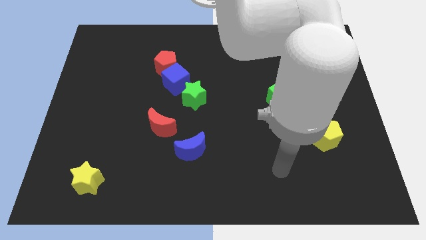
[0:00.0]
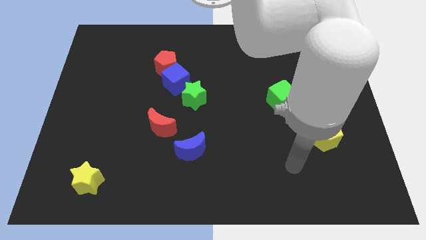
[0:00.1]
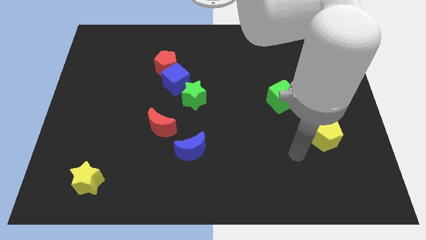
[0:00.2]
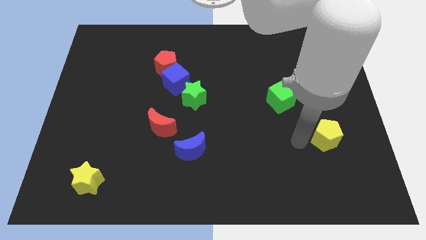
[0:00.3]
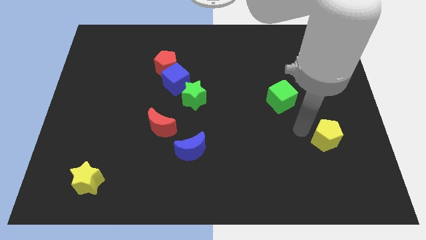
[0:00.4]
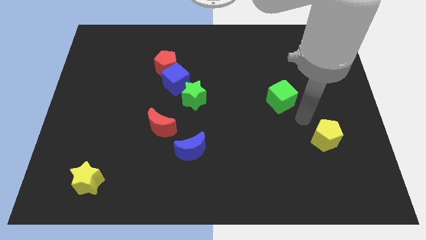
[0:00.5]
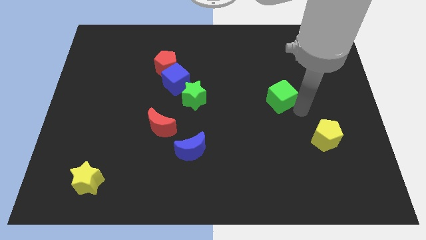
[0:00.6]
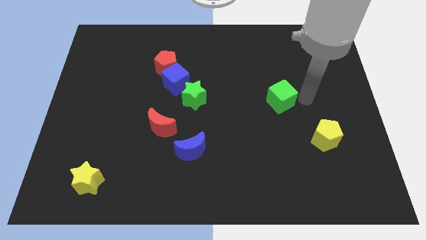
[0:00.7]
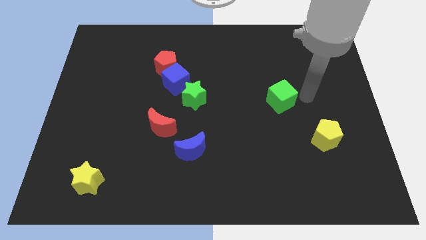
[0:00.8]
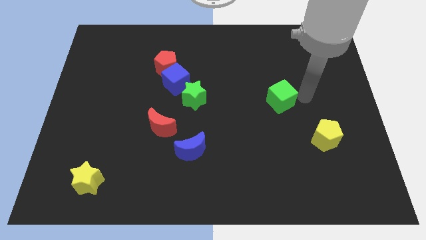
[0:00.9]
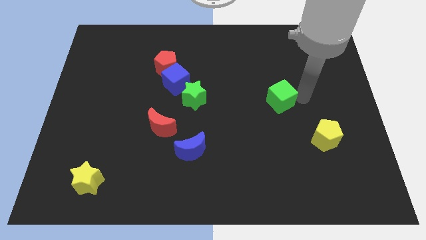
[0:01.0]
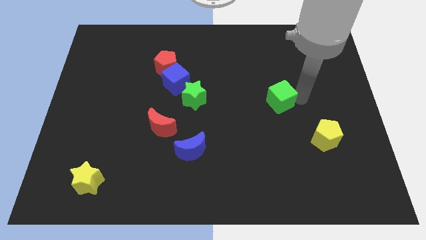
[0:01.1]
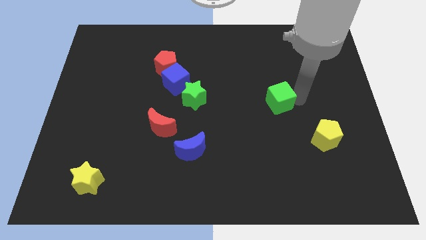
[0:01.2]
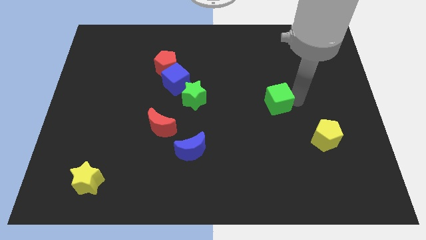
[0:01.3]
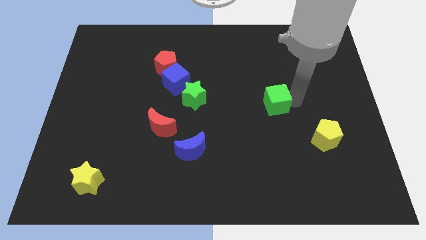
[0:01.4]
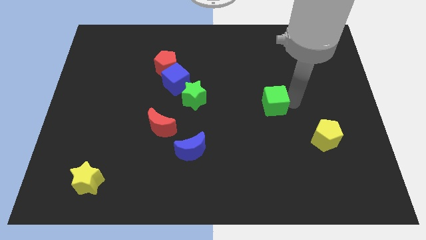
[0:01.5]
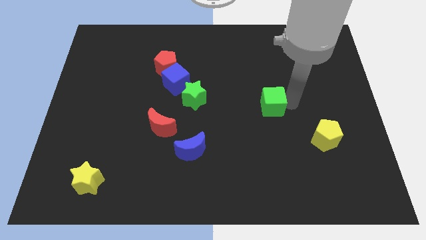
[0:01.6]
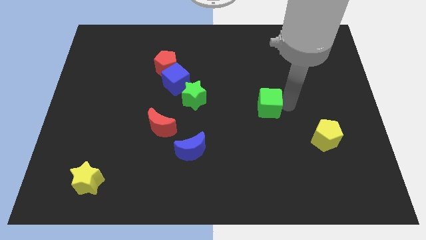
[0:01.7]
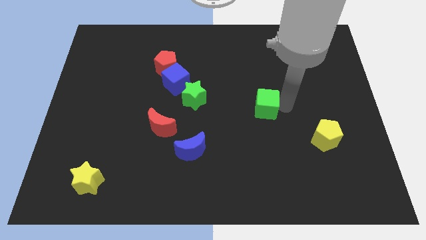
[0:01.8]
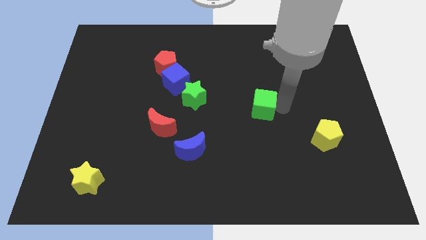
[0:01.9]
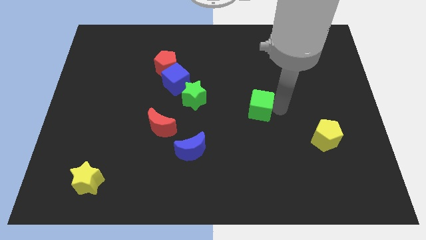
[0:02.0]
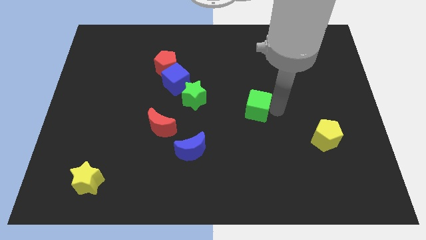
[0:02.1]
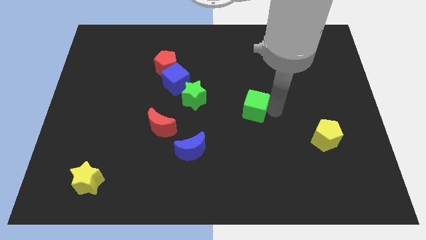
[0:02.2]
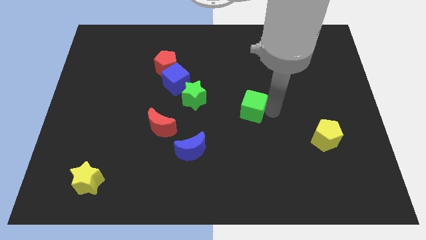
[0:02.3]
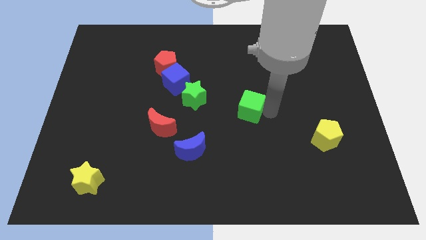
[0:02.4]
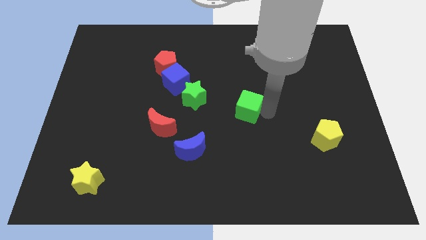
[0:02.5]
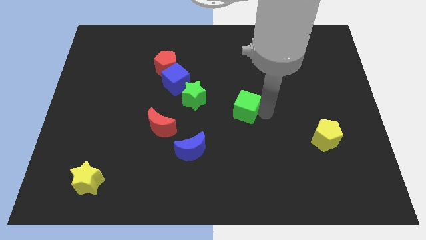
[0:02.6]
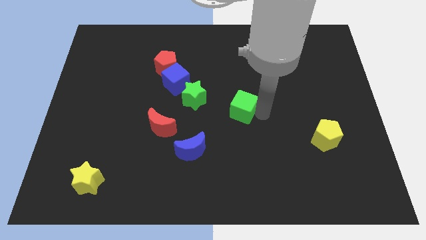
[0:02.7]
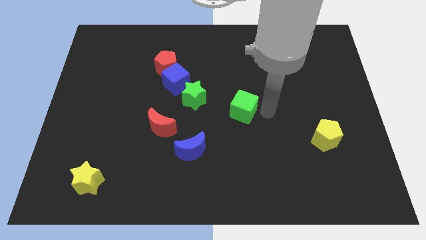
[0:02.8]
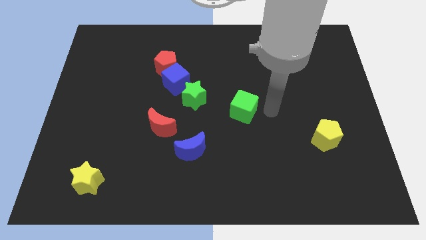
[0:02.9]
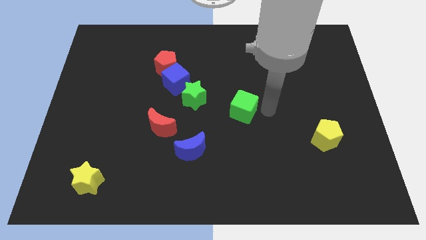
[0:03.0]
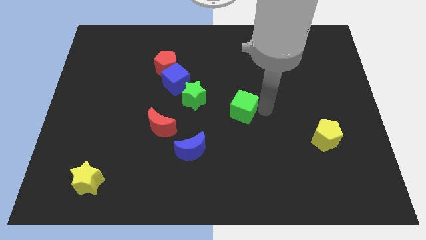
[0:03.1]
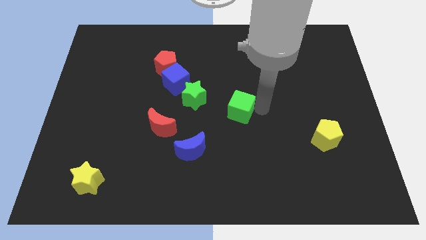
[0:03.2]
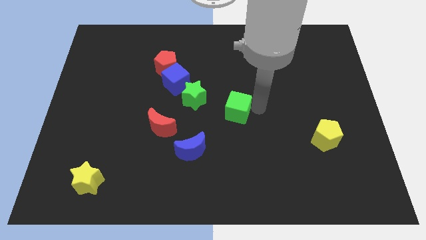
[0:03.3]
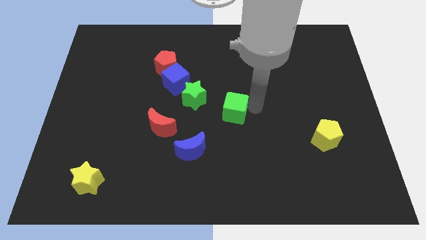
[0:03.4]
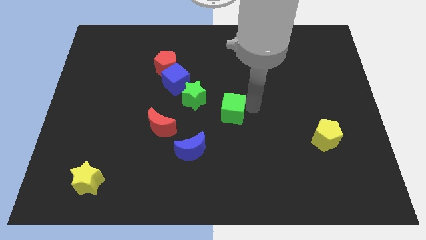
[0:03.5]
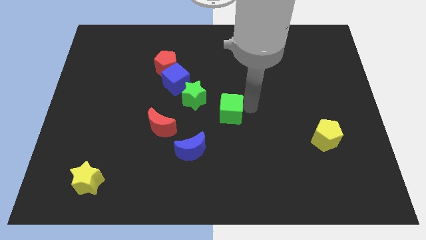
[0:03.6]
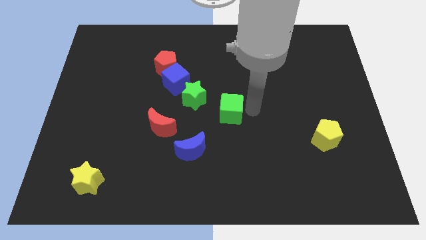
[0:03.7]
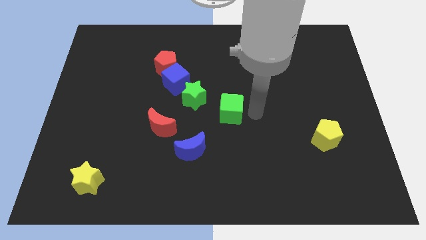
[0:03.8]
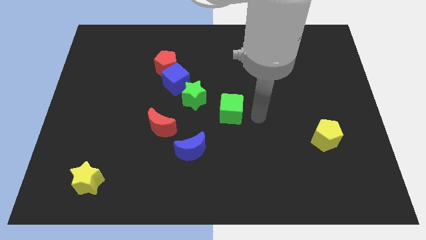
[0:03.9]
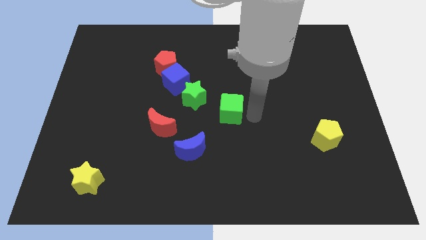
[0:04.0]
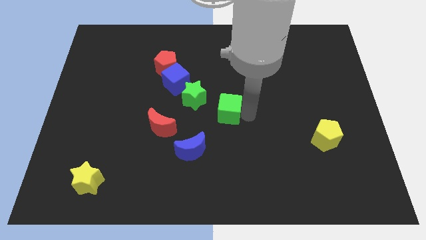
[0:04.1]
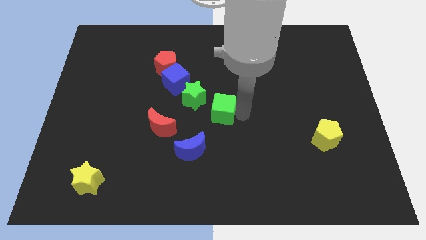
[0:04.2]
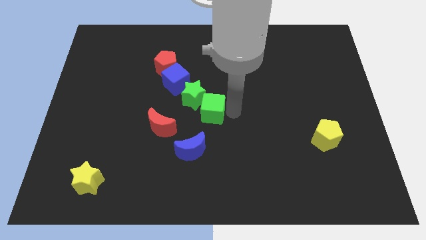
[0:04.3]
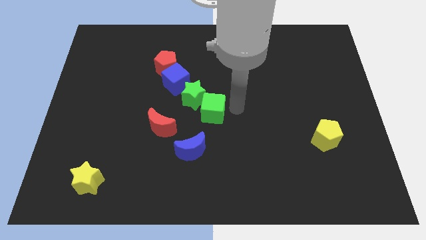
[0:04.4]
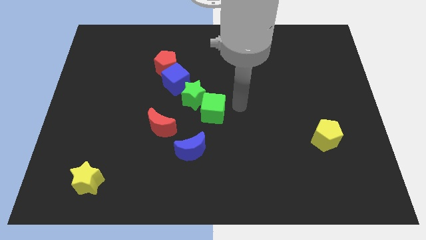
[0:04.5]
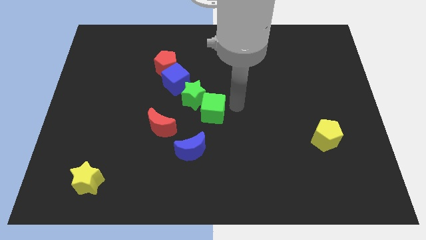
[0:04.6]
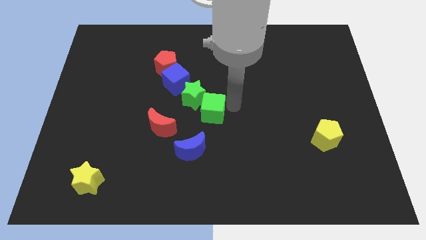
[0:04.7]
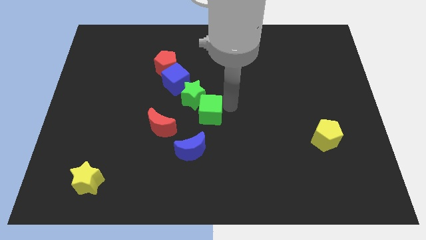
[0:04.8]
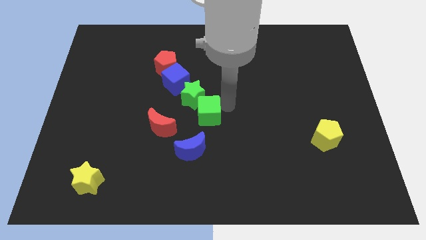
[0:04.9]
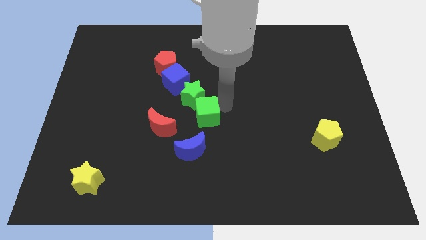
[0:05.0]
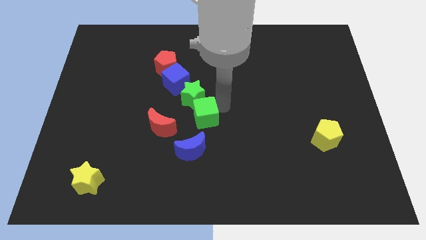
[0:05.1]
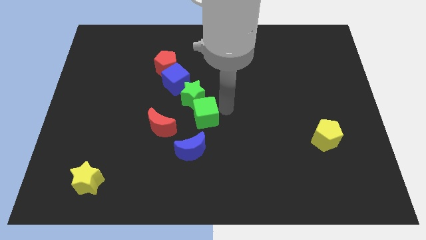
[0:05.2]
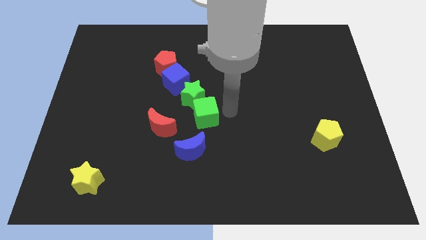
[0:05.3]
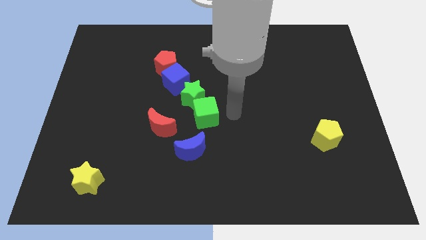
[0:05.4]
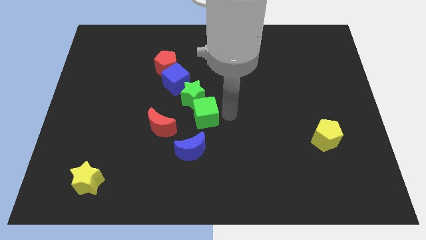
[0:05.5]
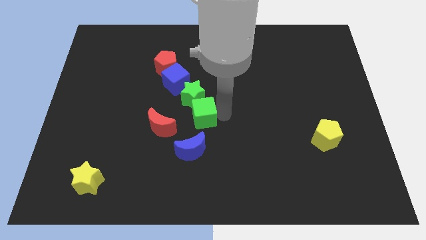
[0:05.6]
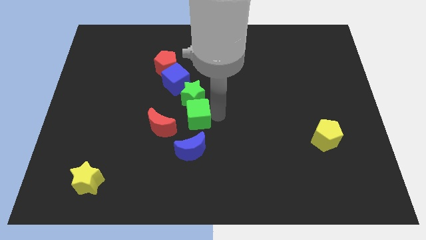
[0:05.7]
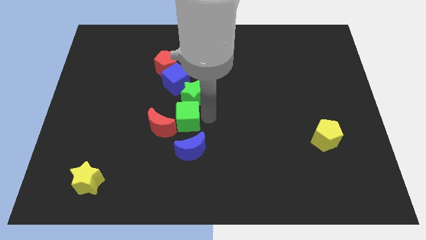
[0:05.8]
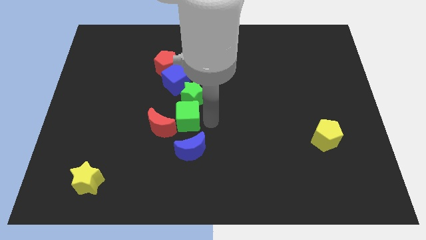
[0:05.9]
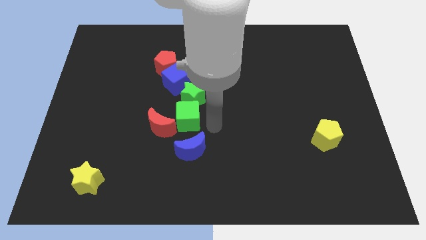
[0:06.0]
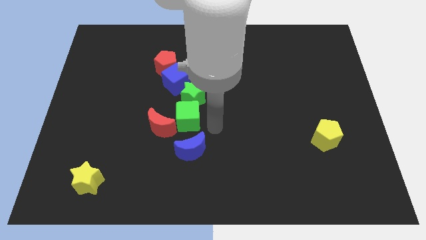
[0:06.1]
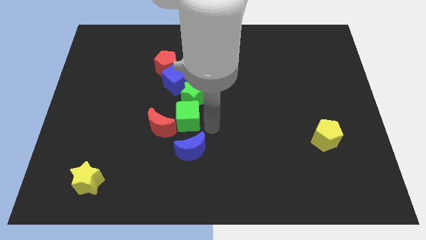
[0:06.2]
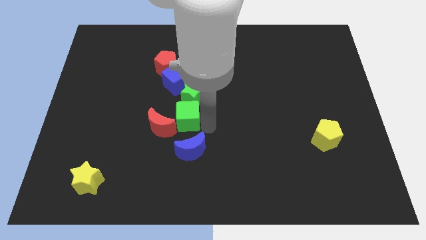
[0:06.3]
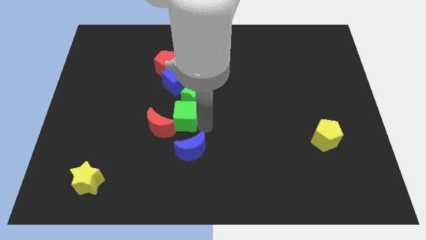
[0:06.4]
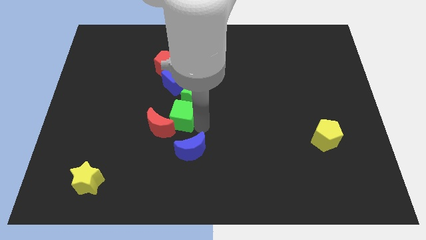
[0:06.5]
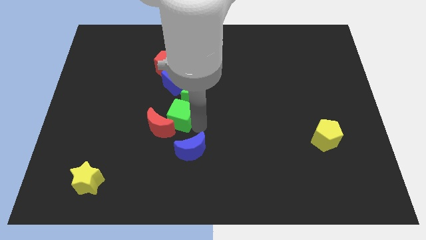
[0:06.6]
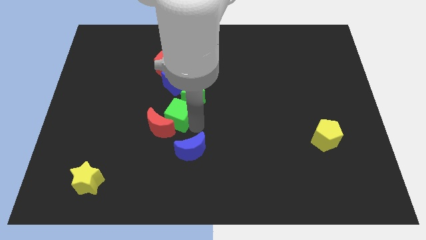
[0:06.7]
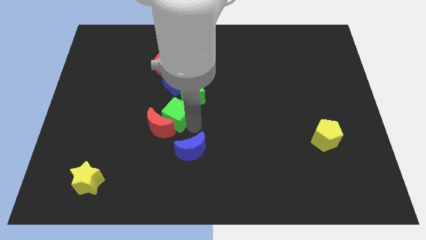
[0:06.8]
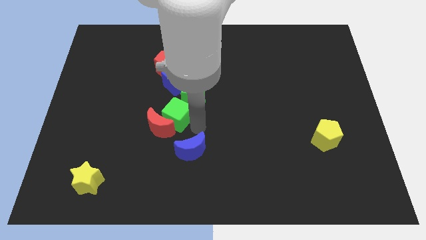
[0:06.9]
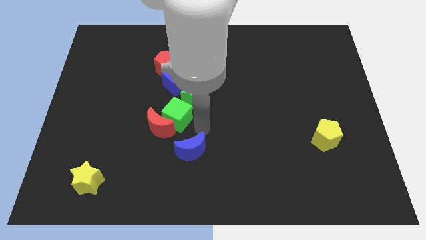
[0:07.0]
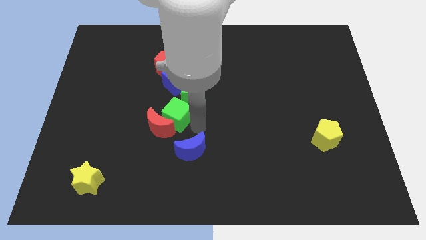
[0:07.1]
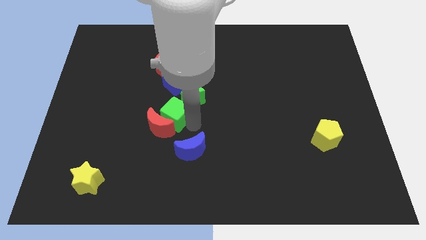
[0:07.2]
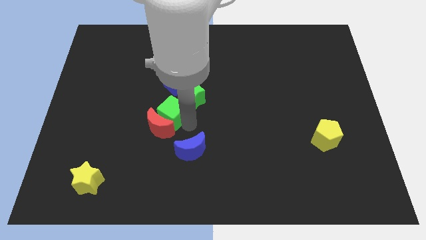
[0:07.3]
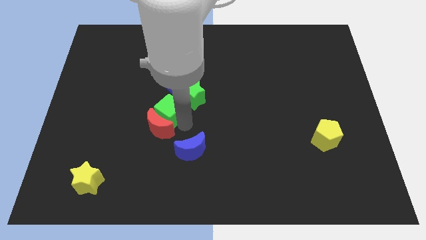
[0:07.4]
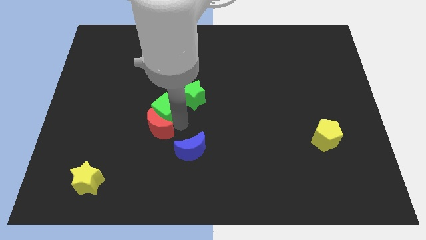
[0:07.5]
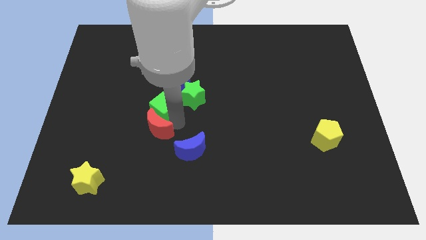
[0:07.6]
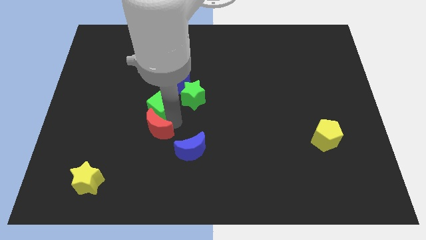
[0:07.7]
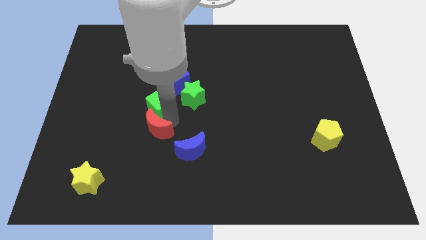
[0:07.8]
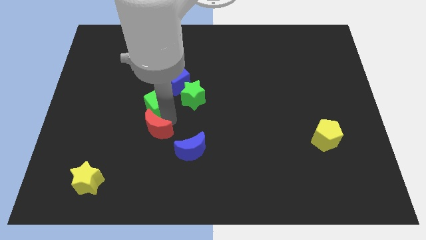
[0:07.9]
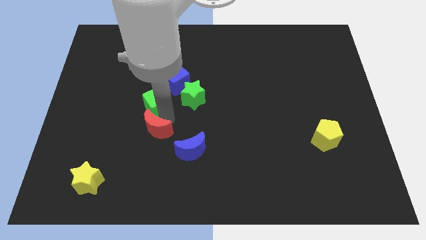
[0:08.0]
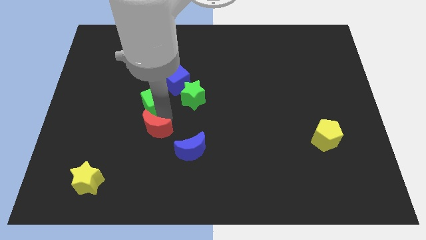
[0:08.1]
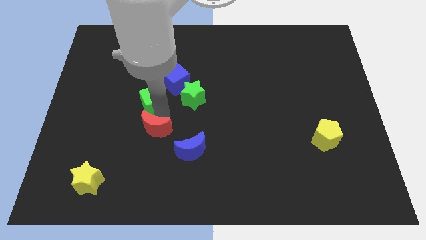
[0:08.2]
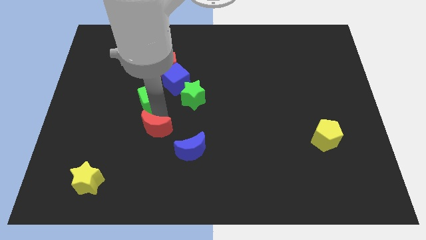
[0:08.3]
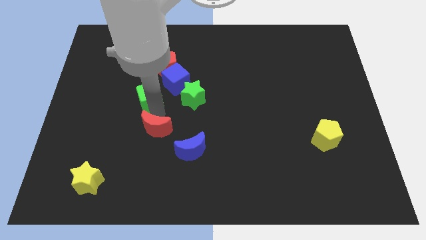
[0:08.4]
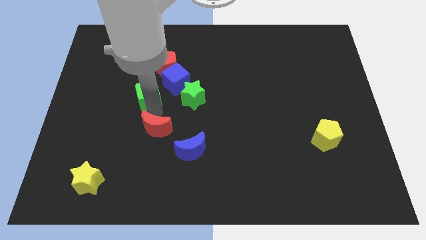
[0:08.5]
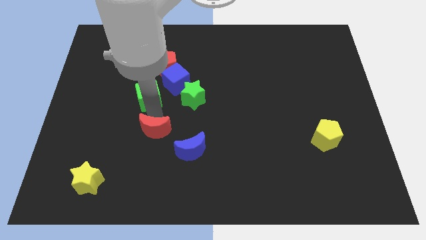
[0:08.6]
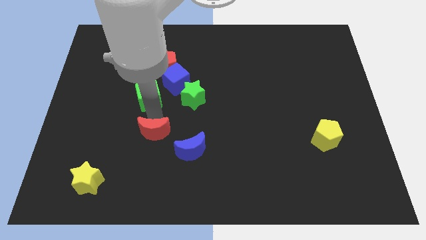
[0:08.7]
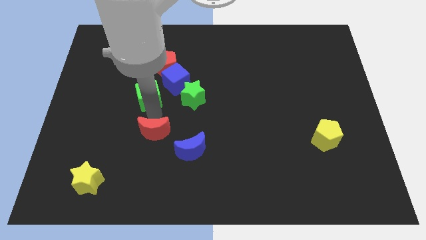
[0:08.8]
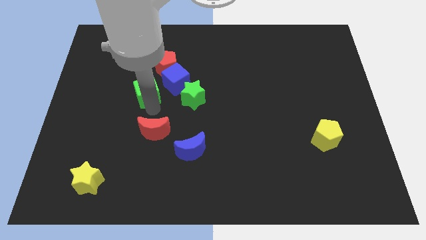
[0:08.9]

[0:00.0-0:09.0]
slide the green cube diagonally down and to the left of the red pentagon
